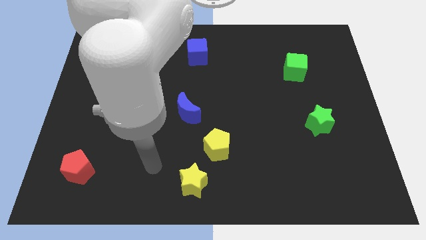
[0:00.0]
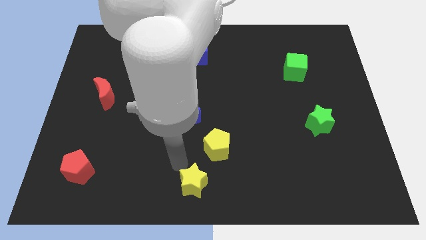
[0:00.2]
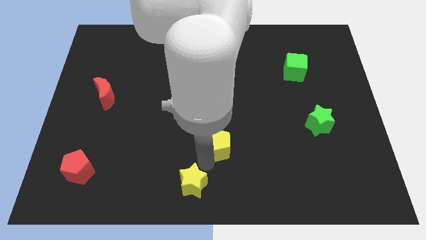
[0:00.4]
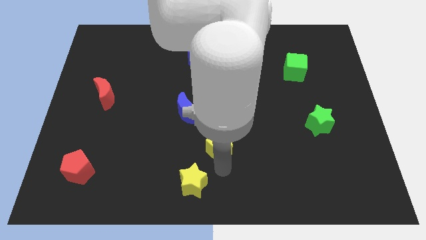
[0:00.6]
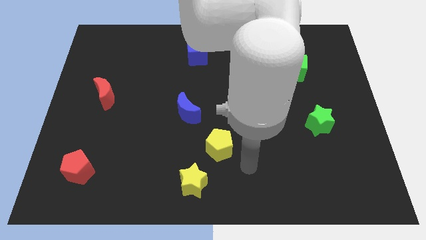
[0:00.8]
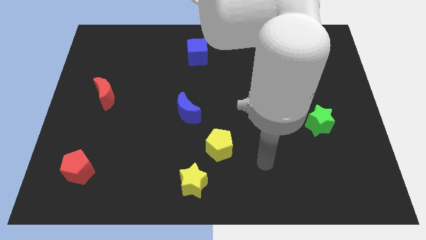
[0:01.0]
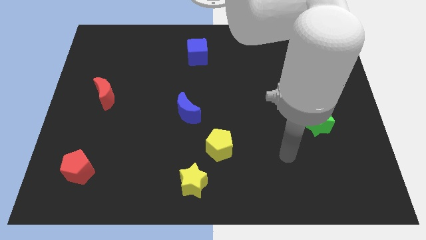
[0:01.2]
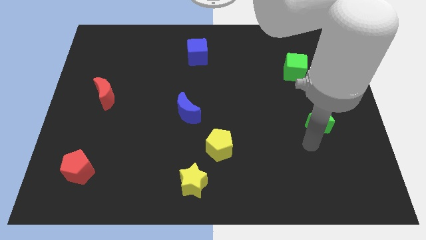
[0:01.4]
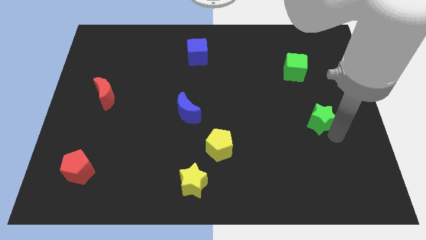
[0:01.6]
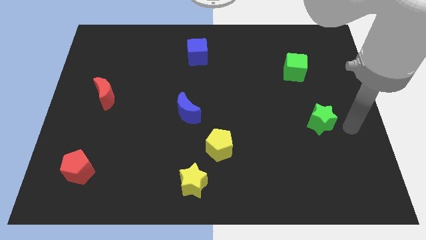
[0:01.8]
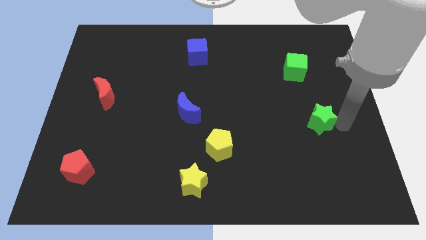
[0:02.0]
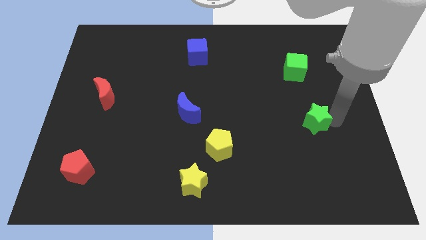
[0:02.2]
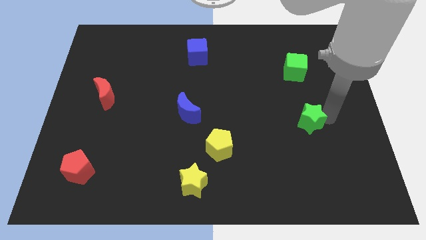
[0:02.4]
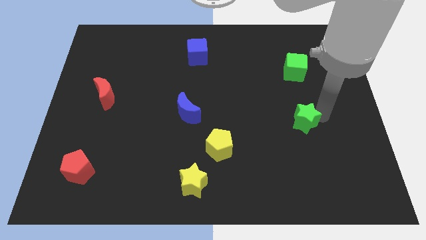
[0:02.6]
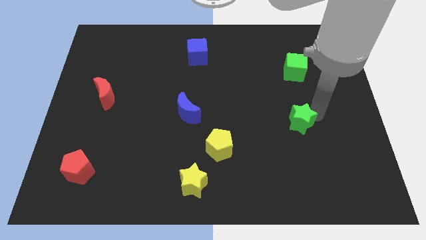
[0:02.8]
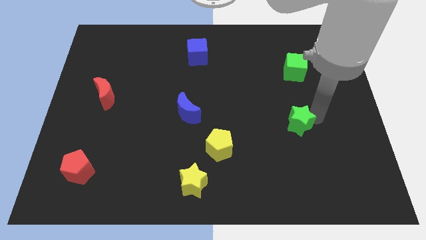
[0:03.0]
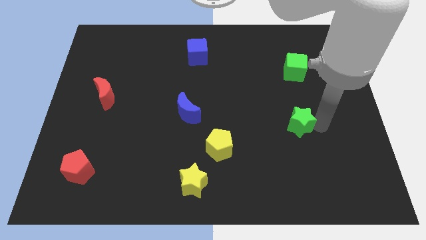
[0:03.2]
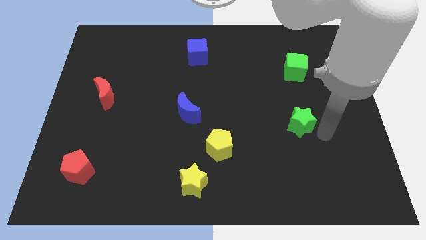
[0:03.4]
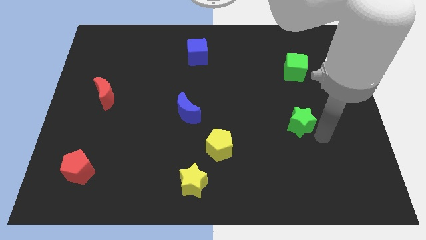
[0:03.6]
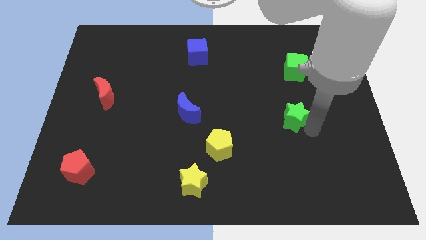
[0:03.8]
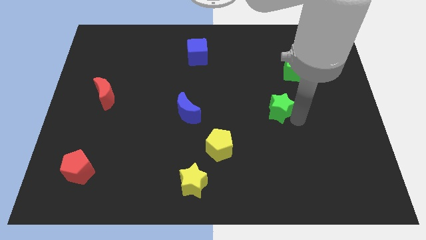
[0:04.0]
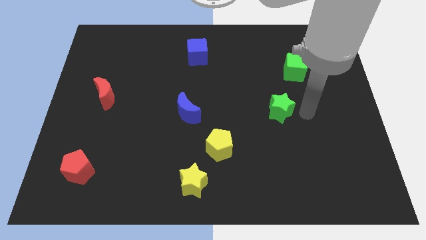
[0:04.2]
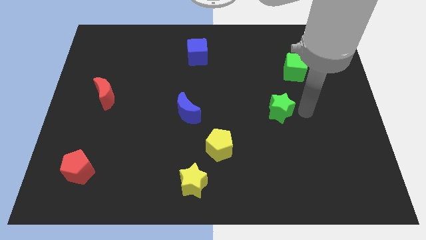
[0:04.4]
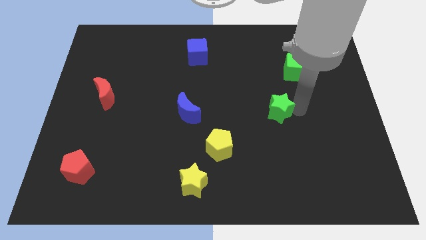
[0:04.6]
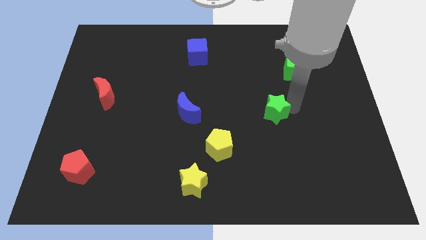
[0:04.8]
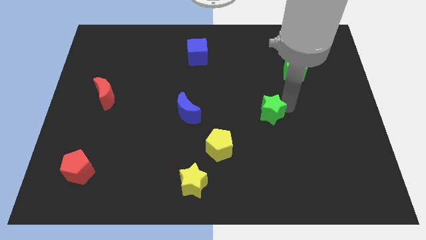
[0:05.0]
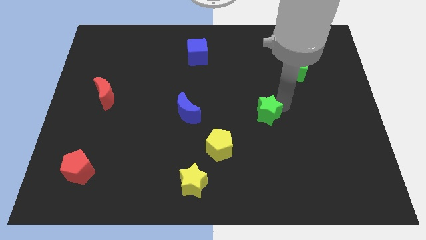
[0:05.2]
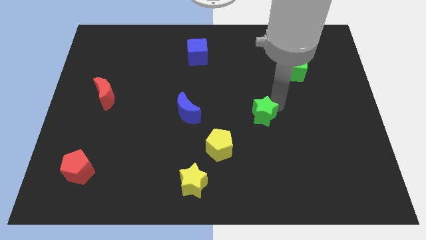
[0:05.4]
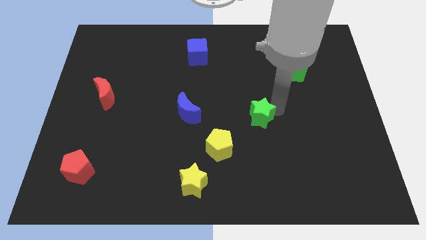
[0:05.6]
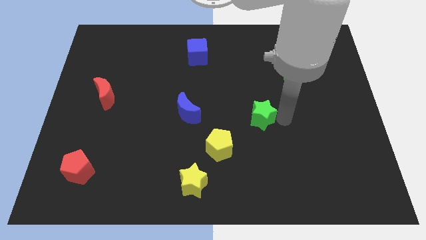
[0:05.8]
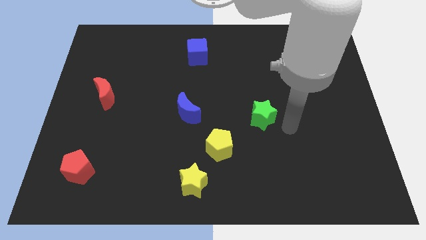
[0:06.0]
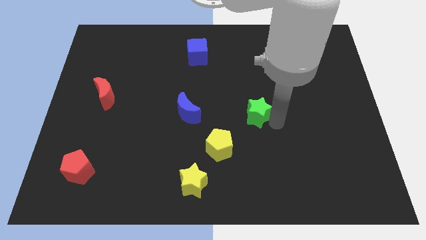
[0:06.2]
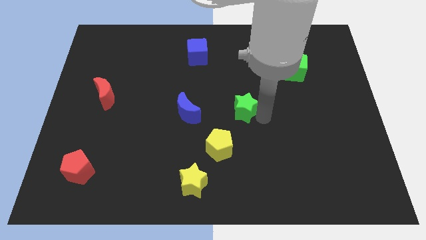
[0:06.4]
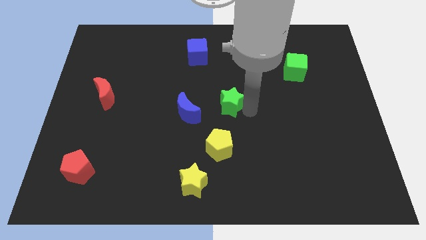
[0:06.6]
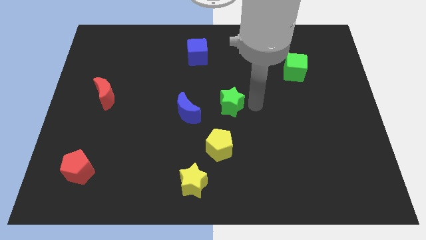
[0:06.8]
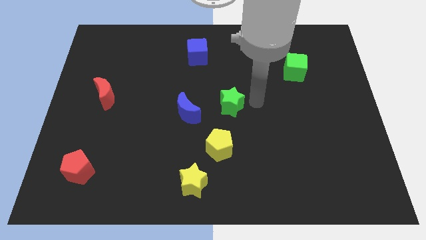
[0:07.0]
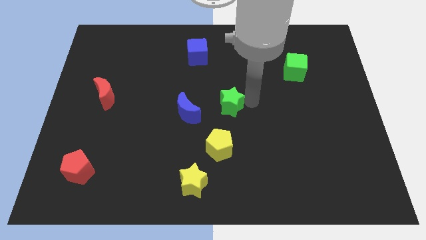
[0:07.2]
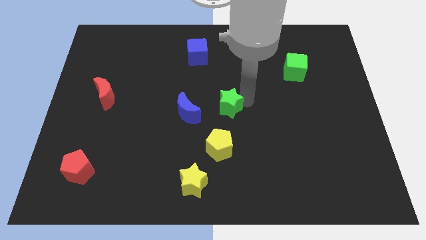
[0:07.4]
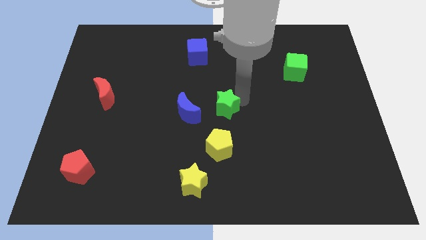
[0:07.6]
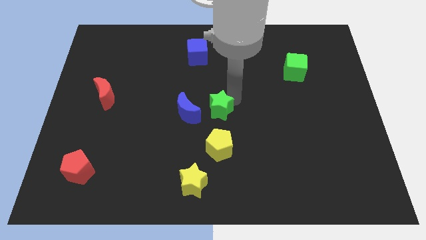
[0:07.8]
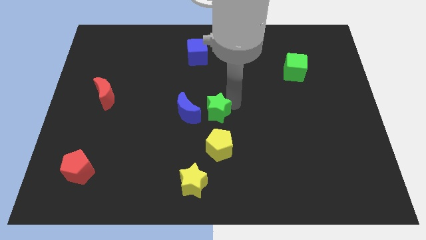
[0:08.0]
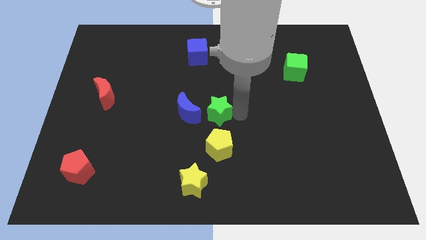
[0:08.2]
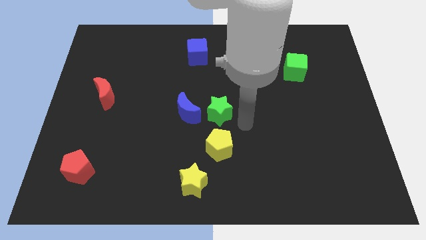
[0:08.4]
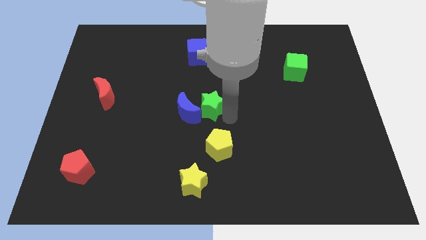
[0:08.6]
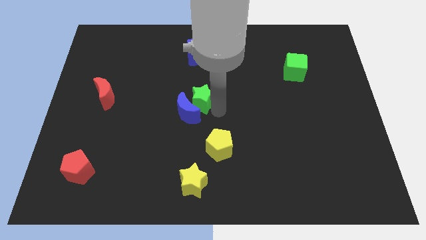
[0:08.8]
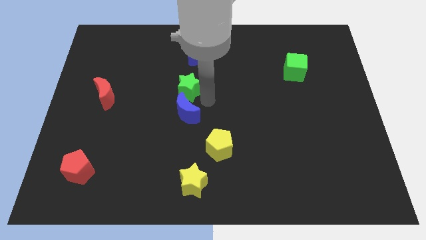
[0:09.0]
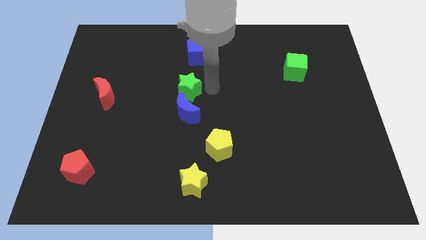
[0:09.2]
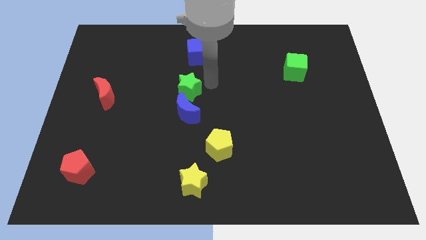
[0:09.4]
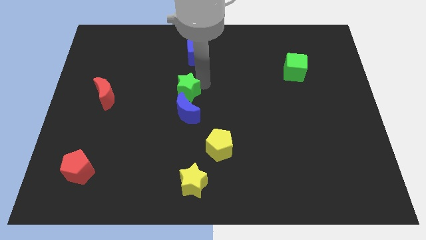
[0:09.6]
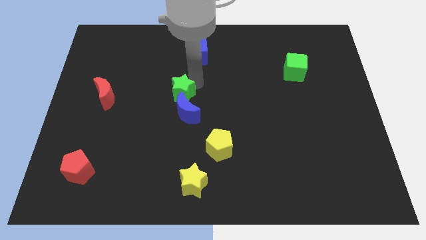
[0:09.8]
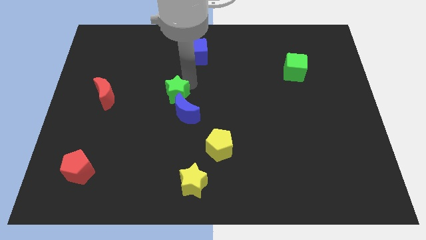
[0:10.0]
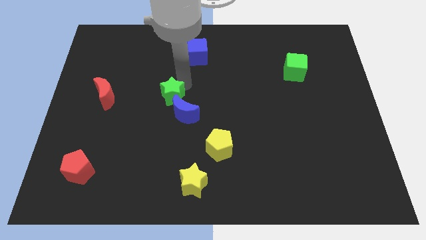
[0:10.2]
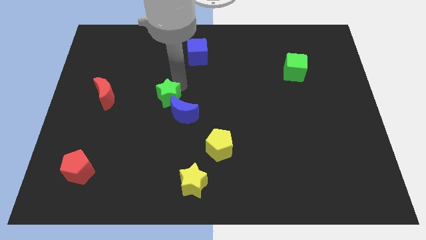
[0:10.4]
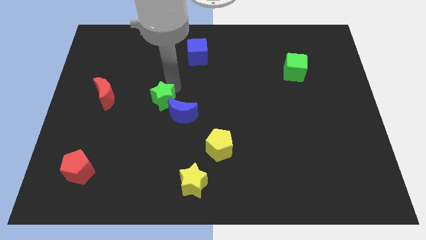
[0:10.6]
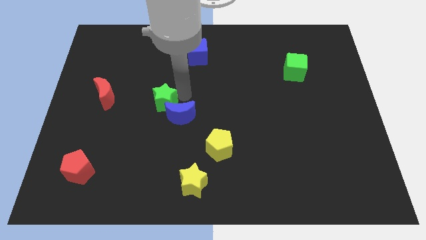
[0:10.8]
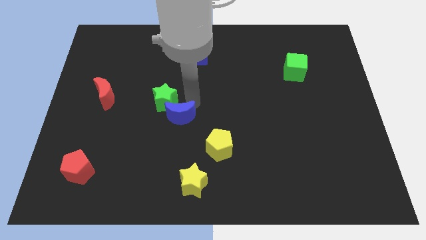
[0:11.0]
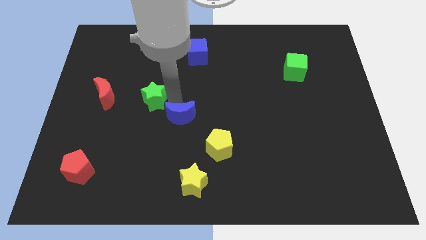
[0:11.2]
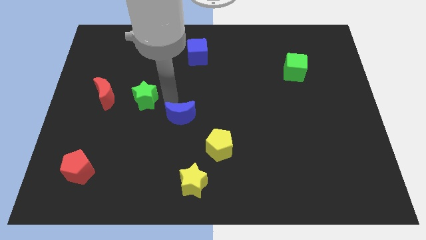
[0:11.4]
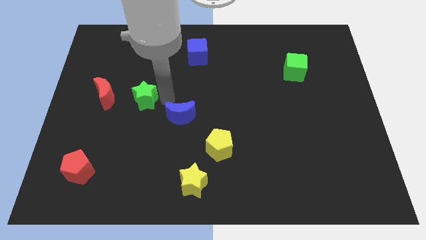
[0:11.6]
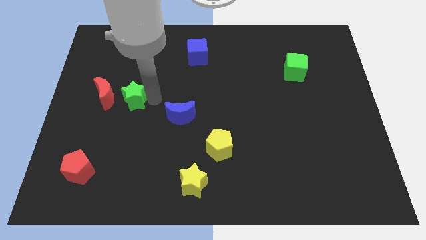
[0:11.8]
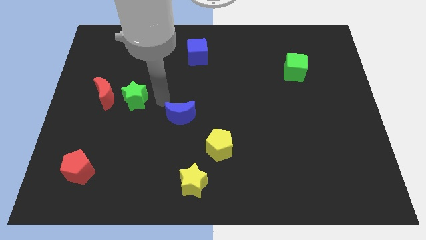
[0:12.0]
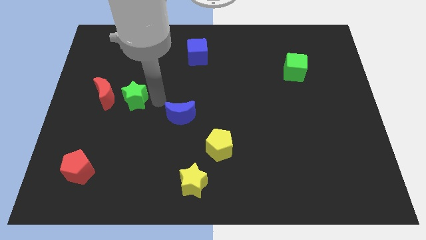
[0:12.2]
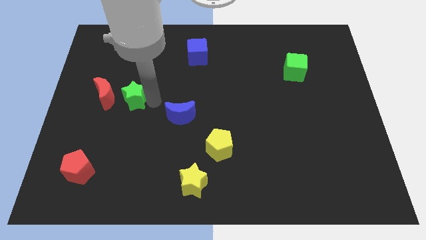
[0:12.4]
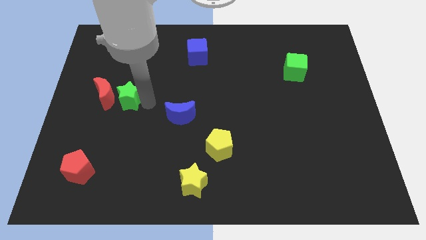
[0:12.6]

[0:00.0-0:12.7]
put the green star towards the red moon

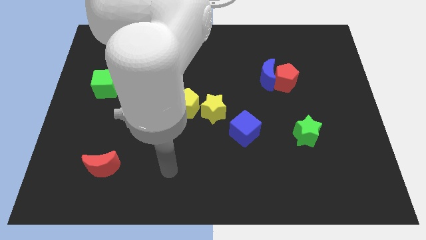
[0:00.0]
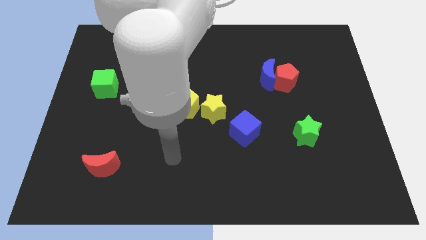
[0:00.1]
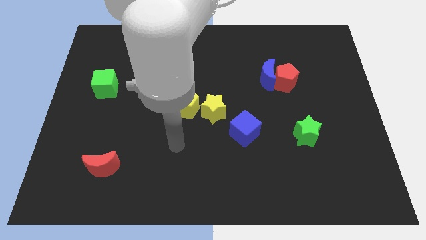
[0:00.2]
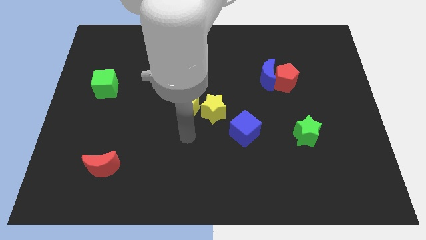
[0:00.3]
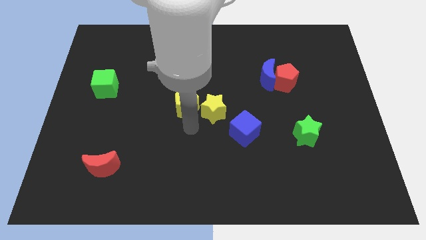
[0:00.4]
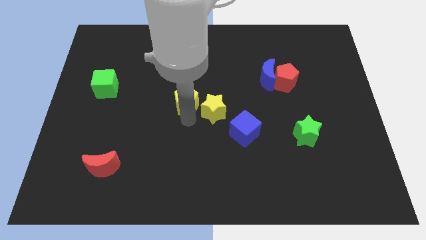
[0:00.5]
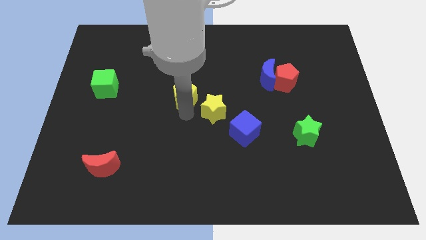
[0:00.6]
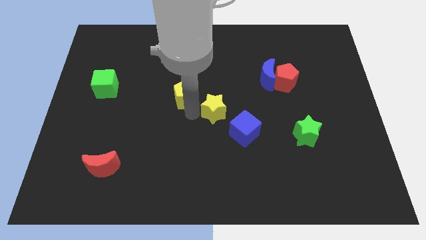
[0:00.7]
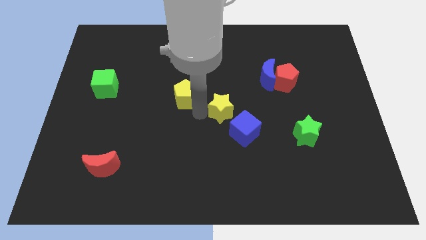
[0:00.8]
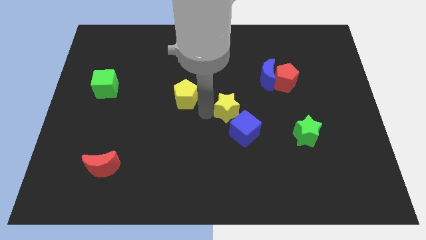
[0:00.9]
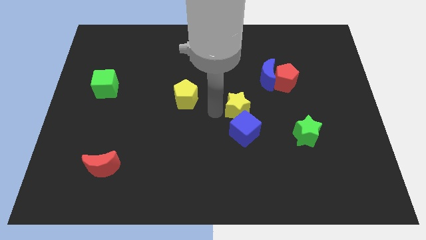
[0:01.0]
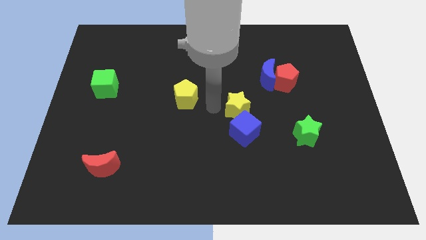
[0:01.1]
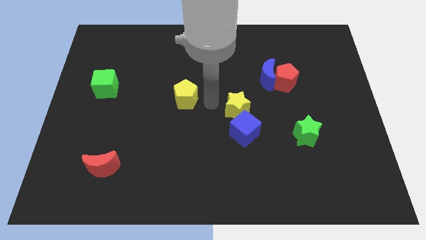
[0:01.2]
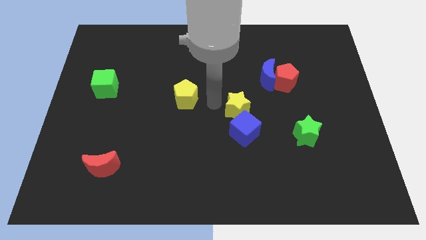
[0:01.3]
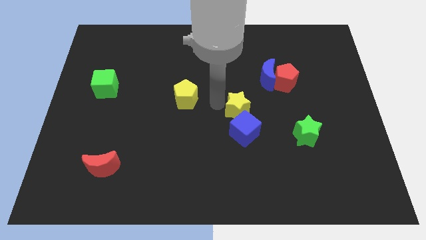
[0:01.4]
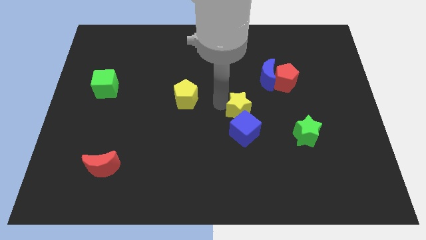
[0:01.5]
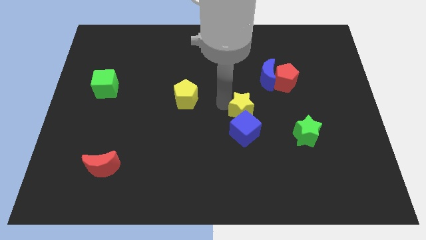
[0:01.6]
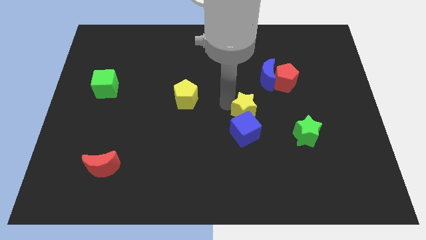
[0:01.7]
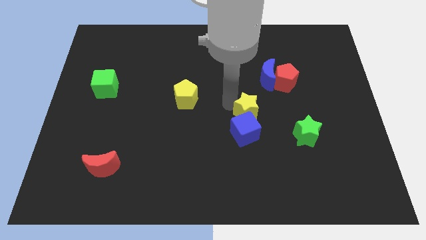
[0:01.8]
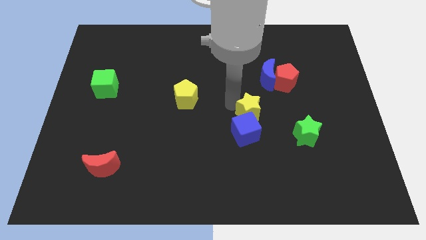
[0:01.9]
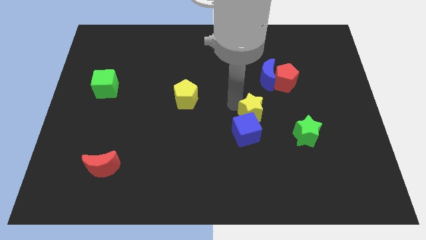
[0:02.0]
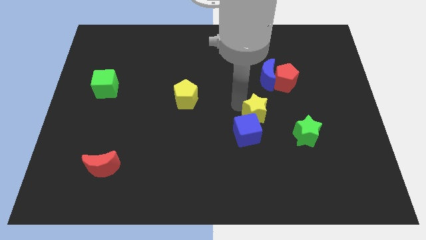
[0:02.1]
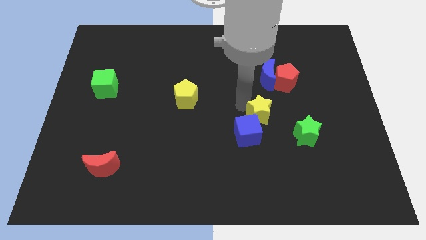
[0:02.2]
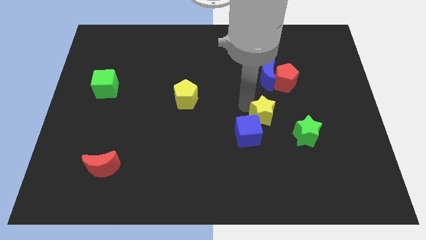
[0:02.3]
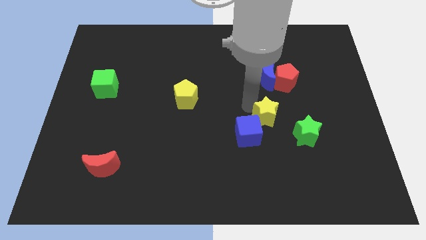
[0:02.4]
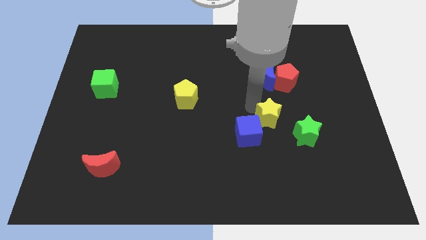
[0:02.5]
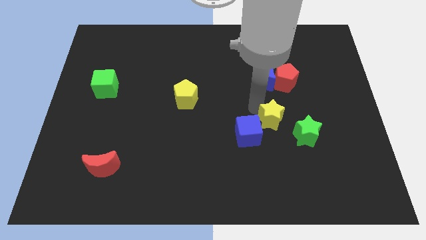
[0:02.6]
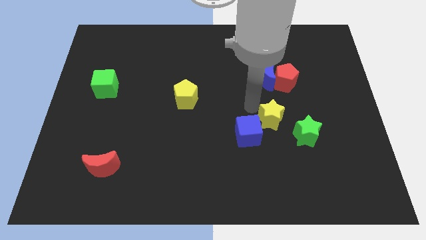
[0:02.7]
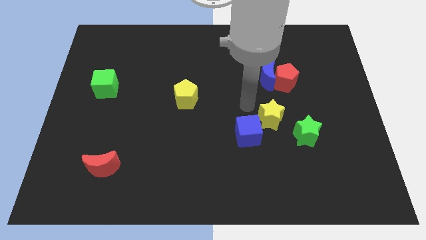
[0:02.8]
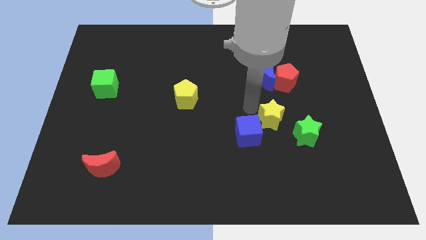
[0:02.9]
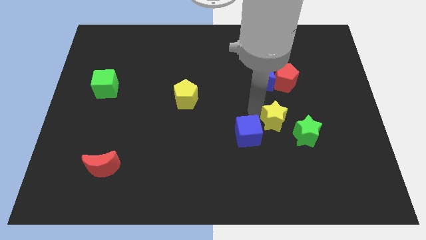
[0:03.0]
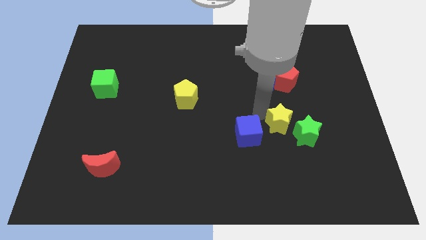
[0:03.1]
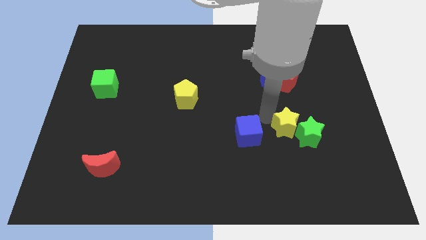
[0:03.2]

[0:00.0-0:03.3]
put the yellow star towards the green star
